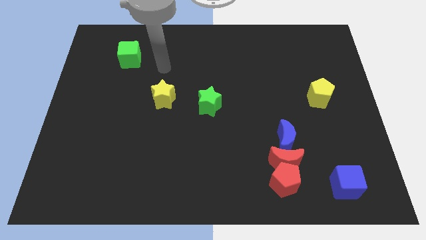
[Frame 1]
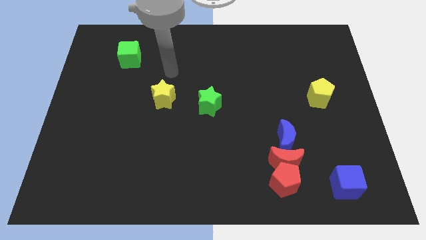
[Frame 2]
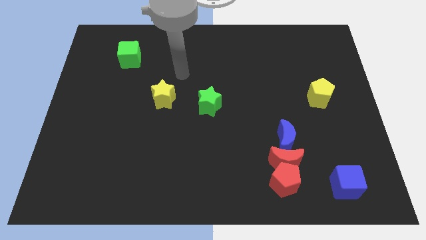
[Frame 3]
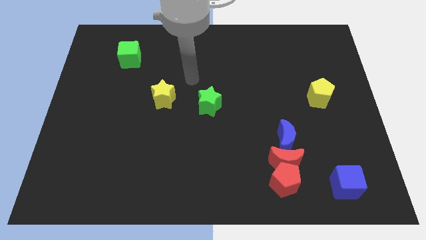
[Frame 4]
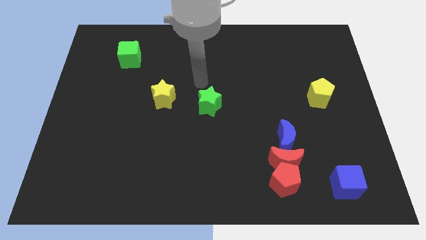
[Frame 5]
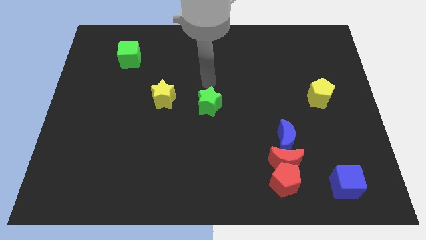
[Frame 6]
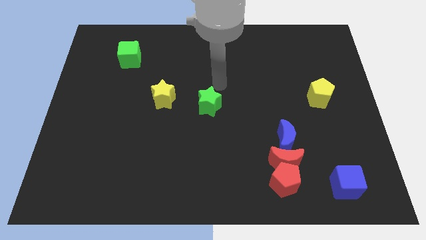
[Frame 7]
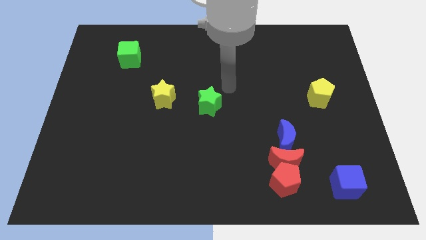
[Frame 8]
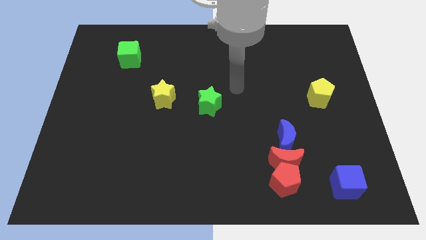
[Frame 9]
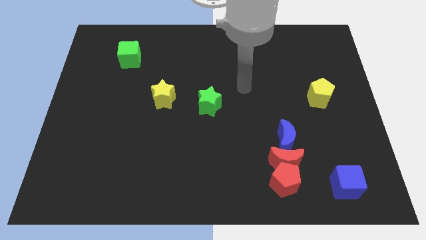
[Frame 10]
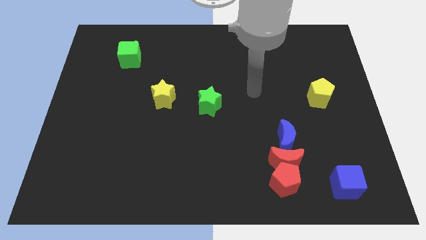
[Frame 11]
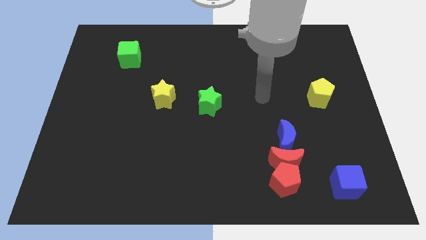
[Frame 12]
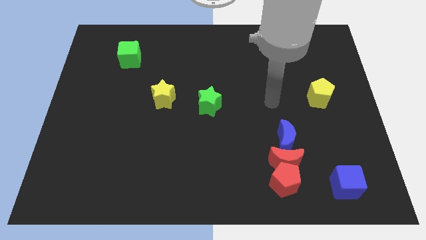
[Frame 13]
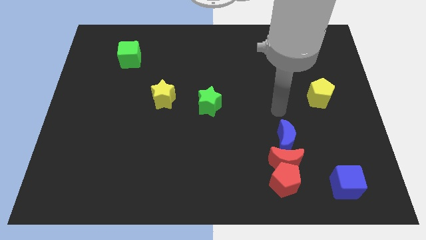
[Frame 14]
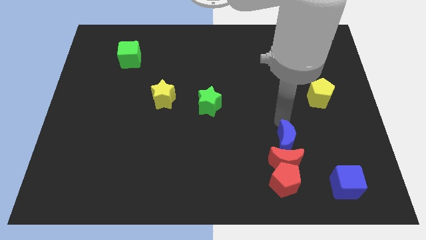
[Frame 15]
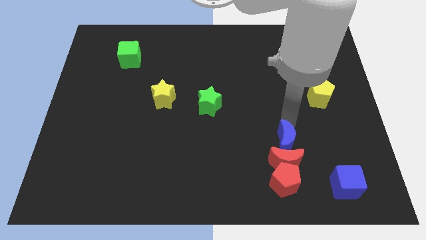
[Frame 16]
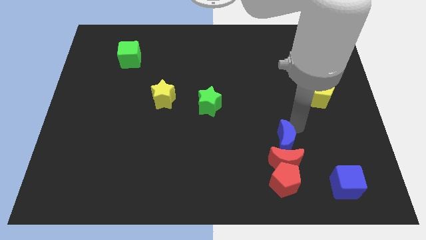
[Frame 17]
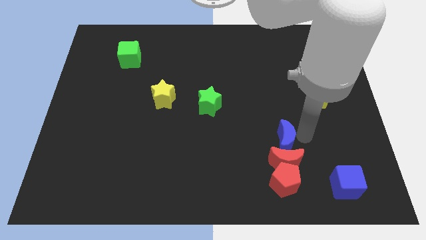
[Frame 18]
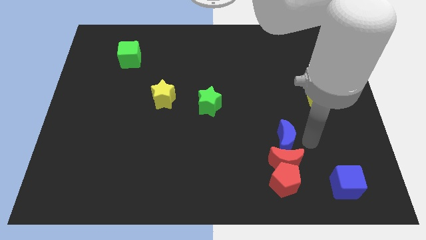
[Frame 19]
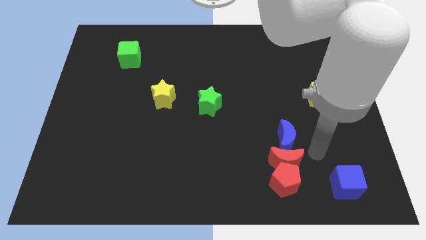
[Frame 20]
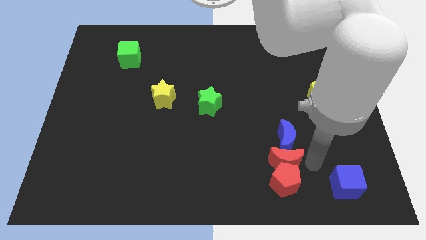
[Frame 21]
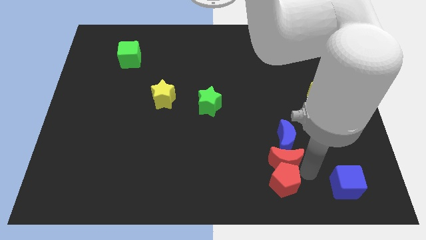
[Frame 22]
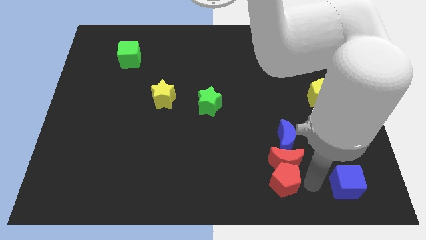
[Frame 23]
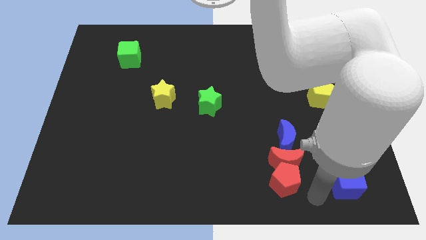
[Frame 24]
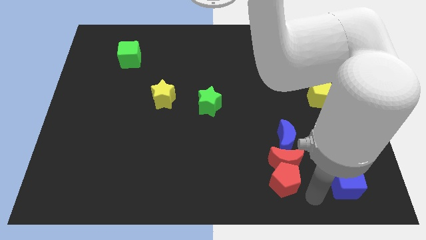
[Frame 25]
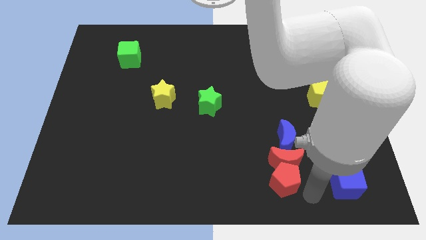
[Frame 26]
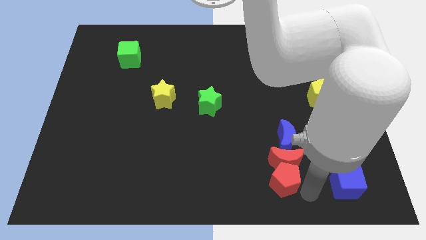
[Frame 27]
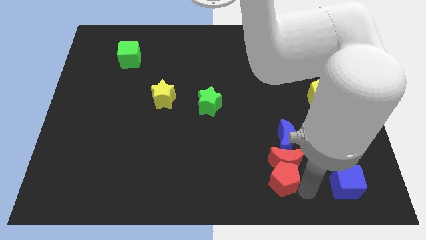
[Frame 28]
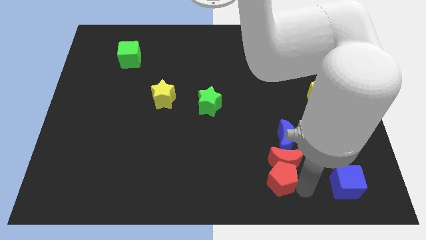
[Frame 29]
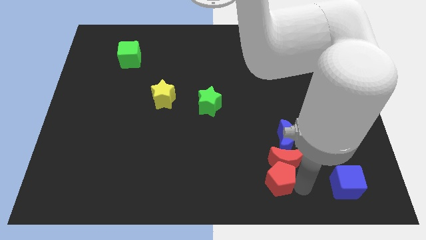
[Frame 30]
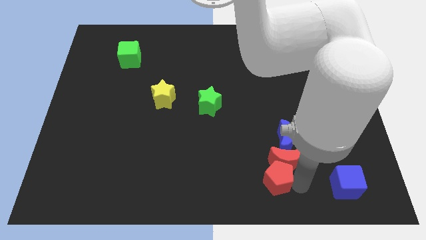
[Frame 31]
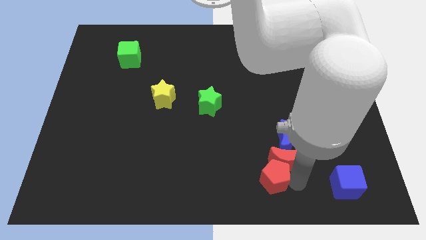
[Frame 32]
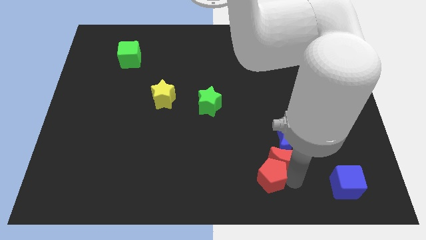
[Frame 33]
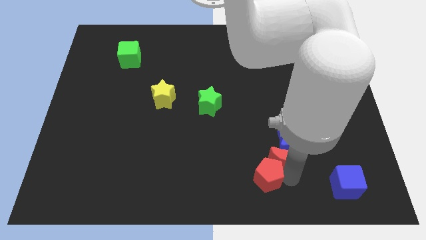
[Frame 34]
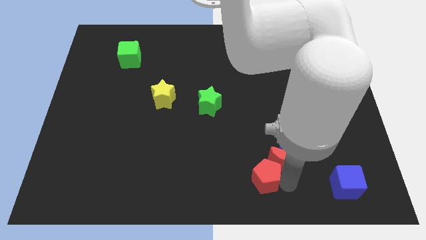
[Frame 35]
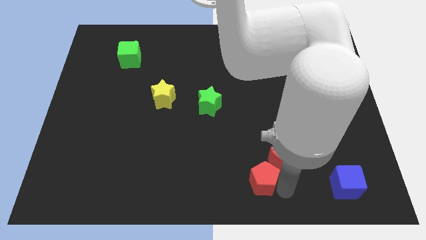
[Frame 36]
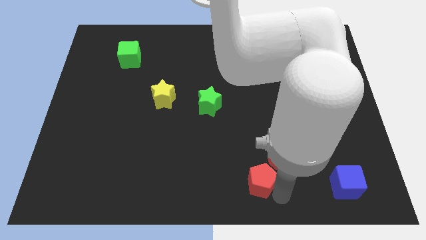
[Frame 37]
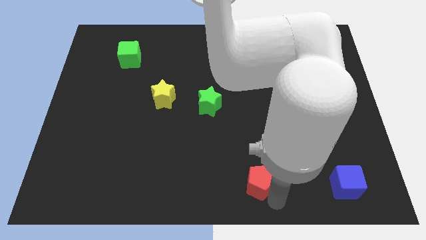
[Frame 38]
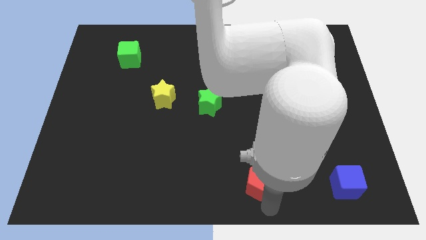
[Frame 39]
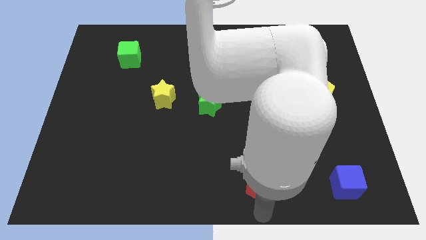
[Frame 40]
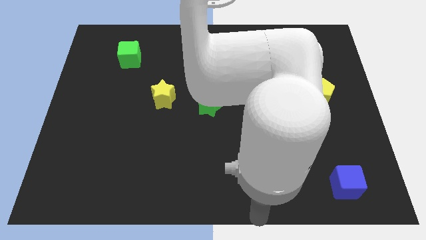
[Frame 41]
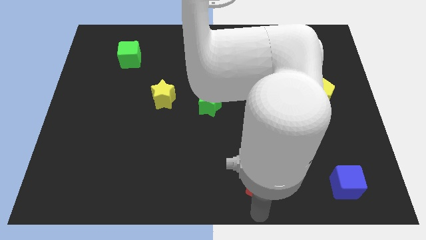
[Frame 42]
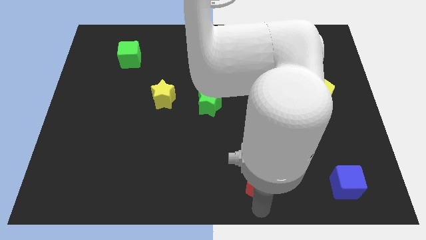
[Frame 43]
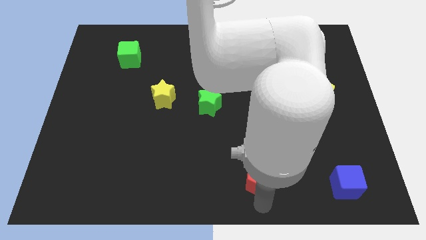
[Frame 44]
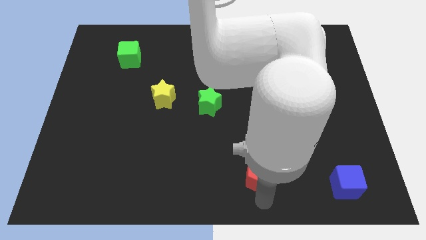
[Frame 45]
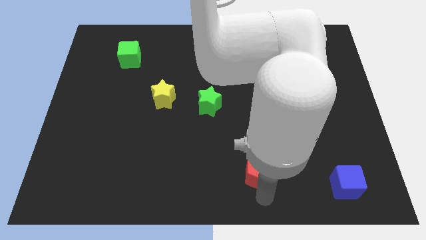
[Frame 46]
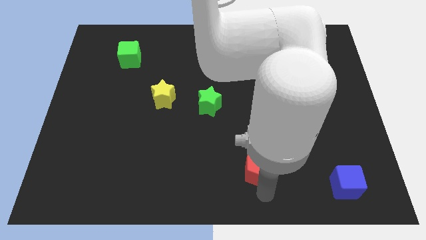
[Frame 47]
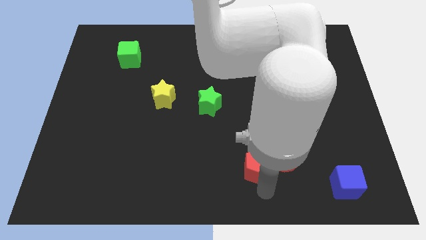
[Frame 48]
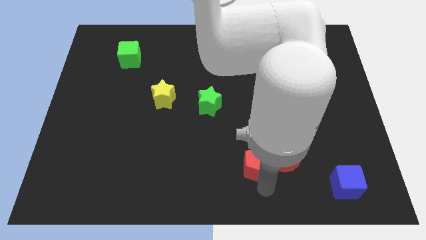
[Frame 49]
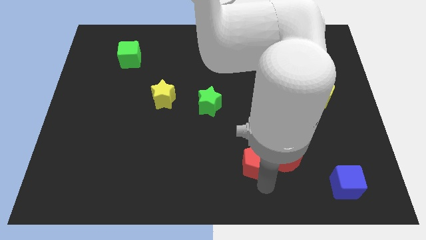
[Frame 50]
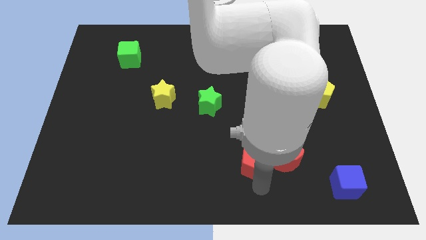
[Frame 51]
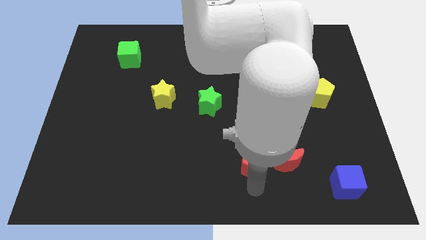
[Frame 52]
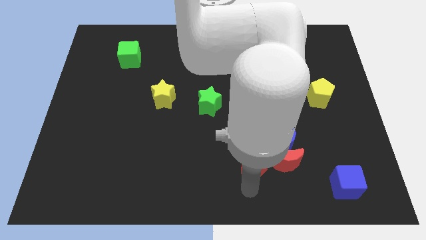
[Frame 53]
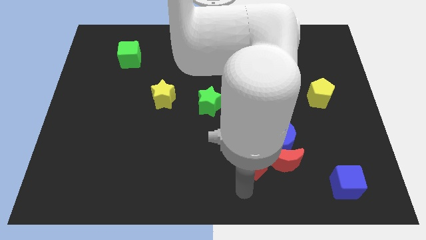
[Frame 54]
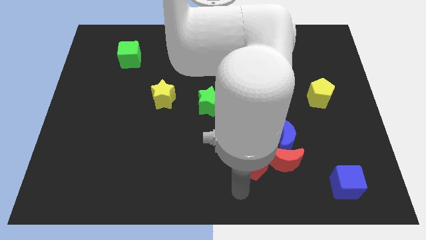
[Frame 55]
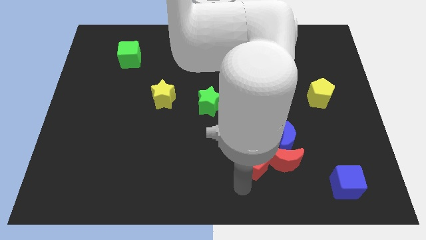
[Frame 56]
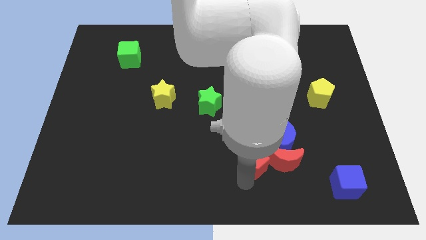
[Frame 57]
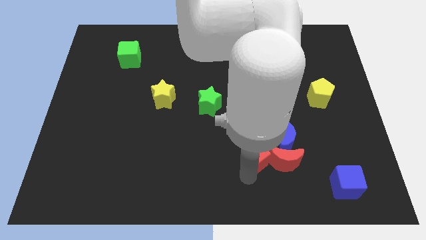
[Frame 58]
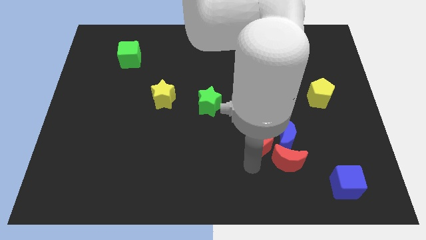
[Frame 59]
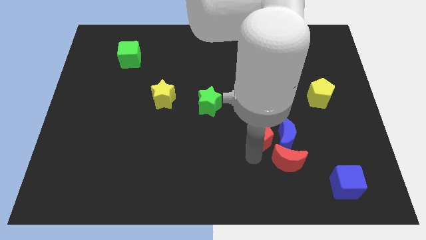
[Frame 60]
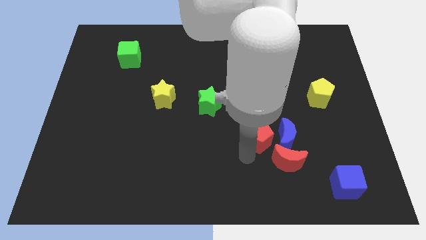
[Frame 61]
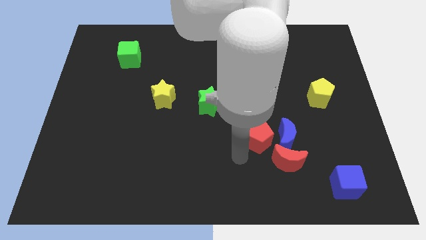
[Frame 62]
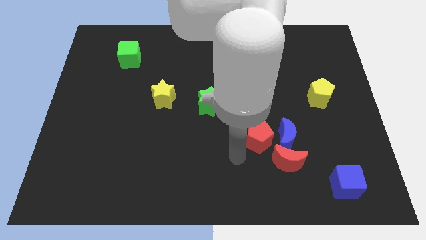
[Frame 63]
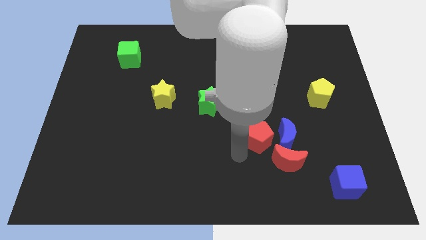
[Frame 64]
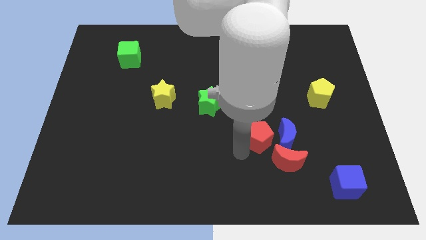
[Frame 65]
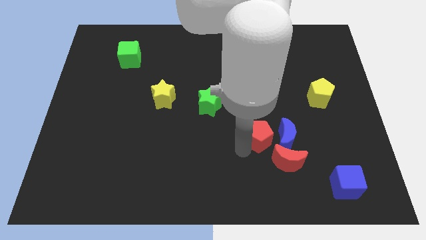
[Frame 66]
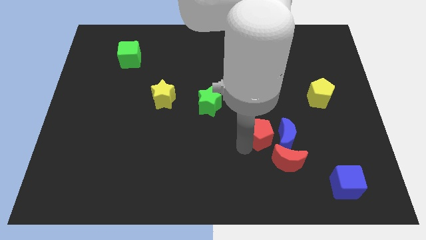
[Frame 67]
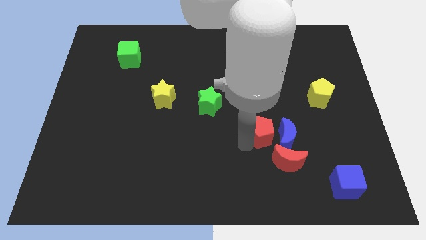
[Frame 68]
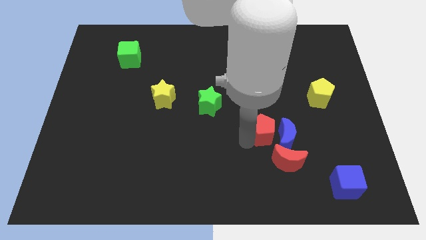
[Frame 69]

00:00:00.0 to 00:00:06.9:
put the red pentagon above the red moon

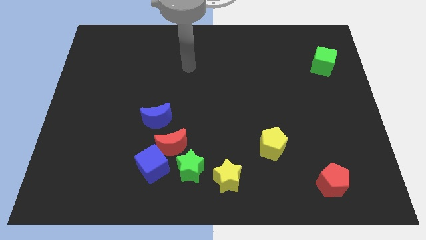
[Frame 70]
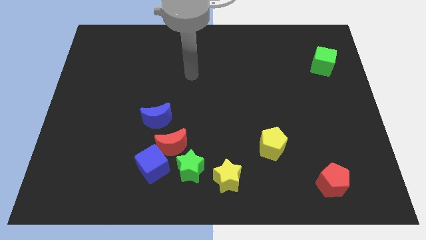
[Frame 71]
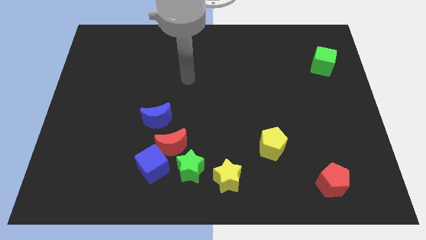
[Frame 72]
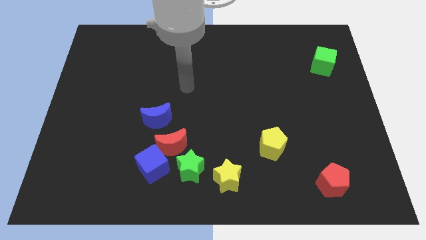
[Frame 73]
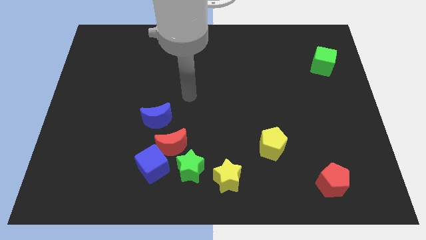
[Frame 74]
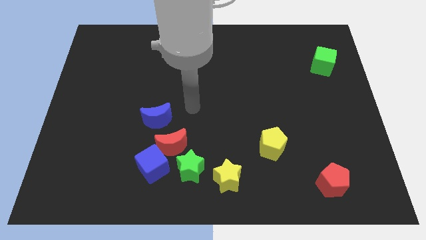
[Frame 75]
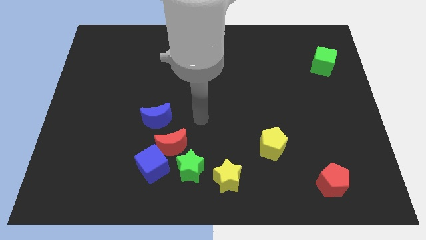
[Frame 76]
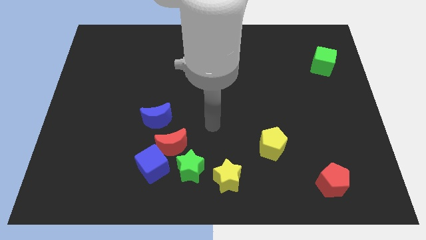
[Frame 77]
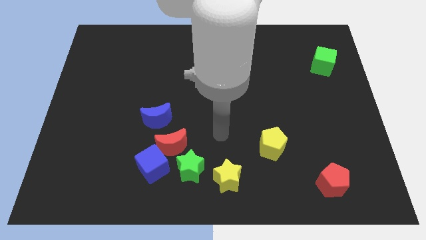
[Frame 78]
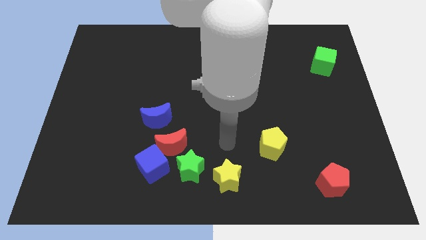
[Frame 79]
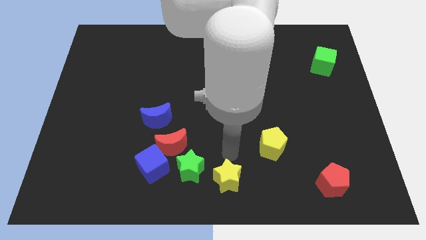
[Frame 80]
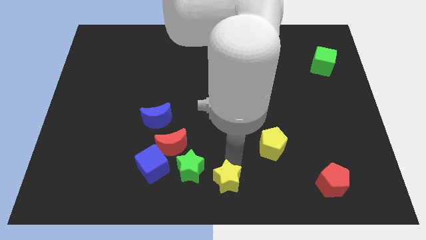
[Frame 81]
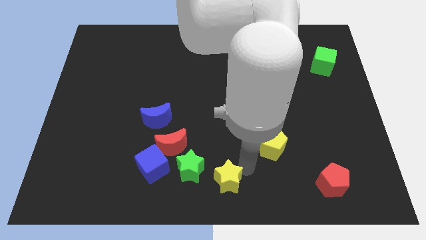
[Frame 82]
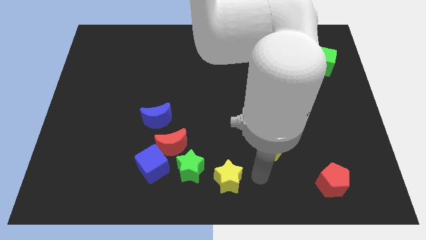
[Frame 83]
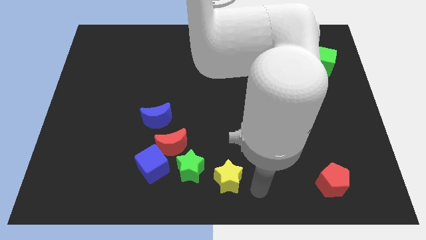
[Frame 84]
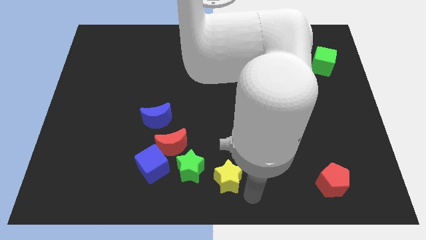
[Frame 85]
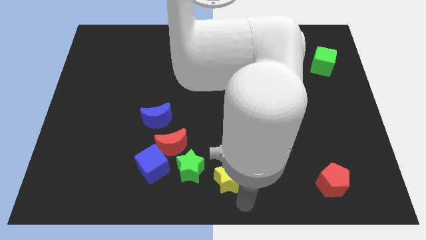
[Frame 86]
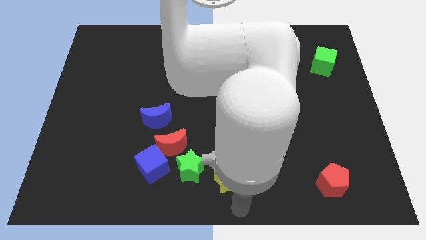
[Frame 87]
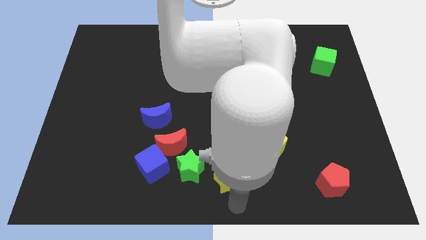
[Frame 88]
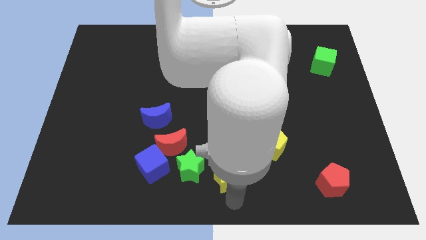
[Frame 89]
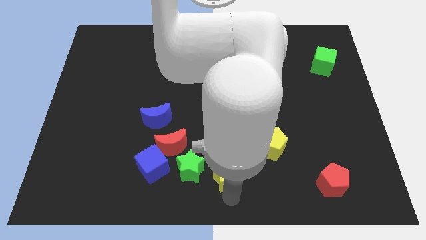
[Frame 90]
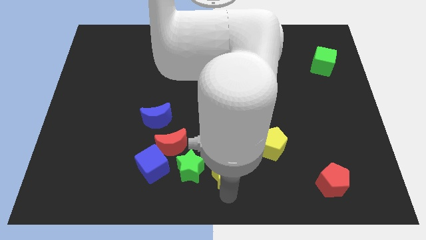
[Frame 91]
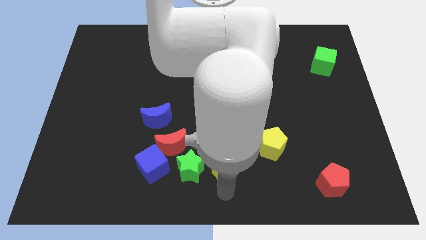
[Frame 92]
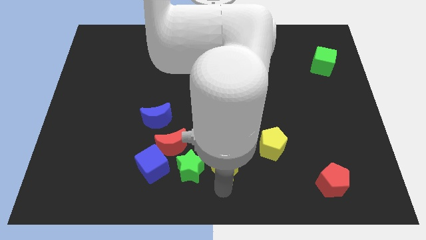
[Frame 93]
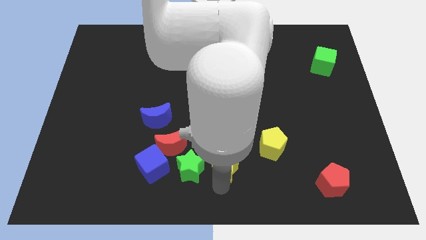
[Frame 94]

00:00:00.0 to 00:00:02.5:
move the yellow star to the top right side of the green star
